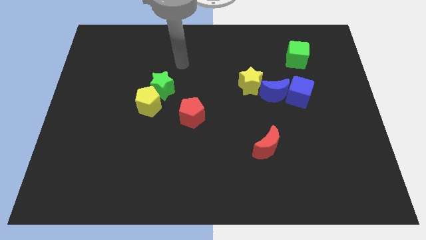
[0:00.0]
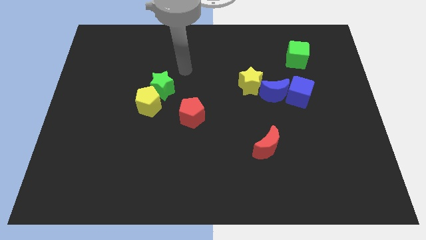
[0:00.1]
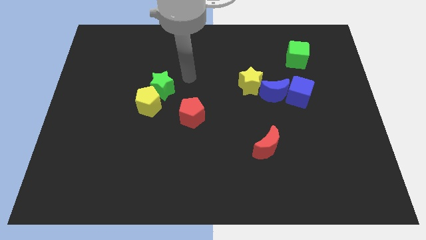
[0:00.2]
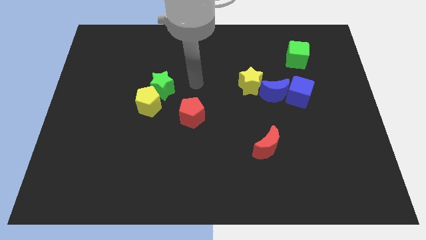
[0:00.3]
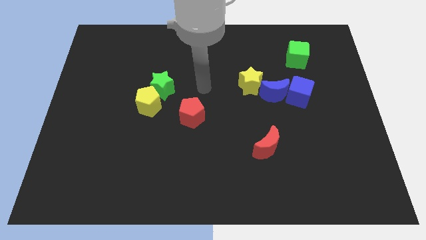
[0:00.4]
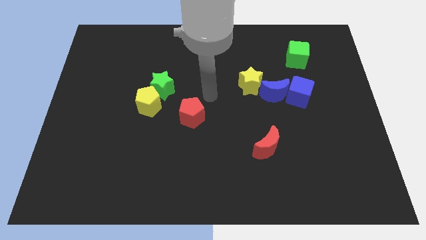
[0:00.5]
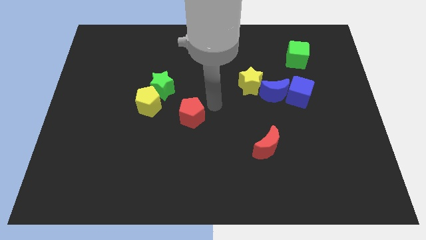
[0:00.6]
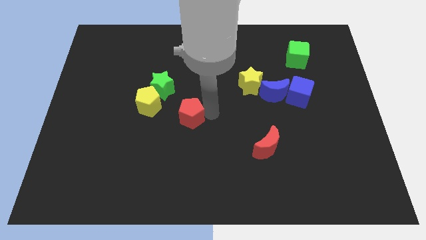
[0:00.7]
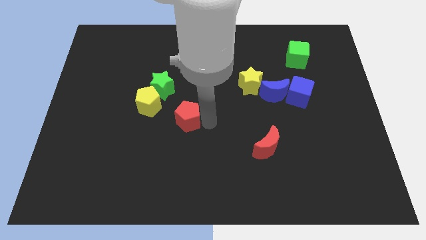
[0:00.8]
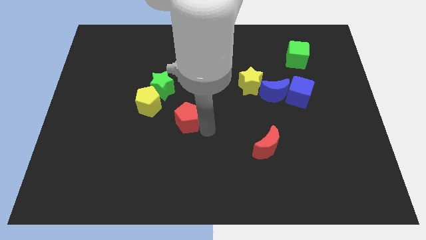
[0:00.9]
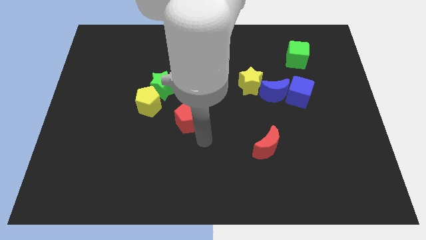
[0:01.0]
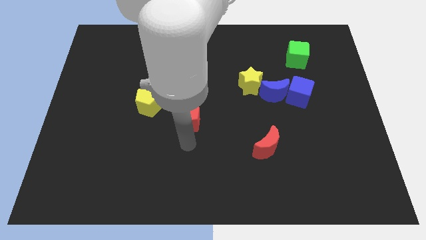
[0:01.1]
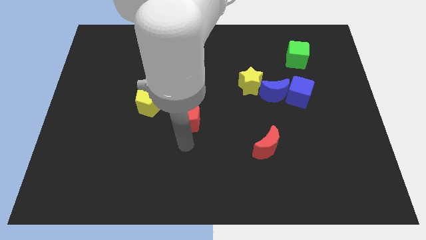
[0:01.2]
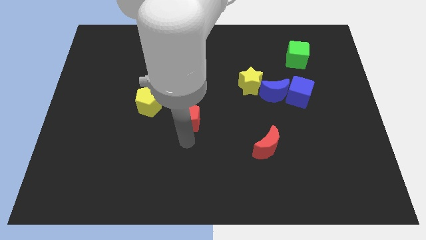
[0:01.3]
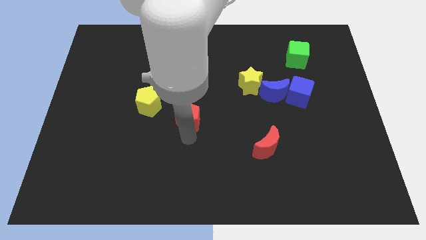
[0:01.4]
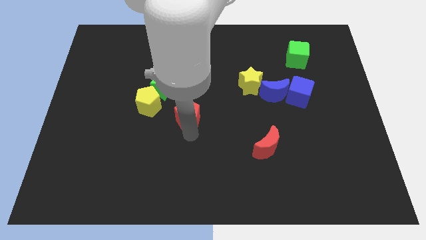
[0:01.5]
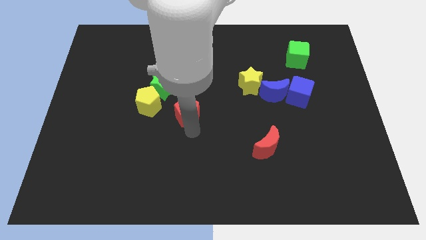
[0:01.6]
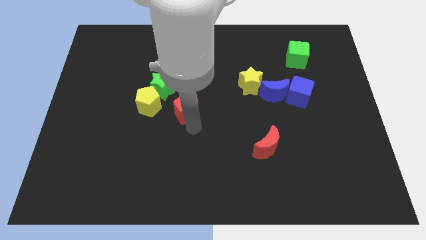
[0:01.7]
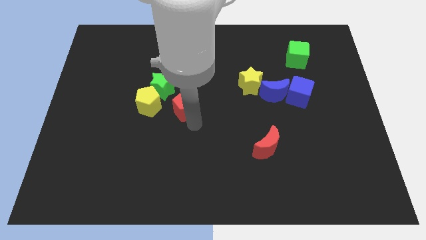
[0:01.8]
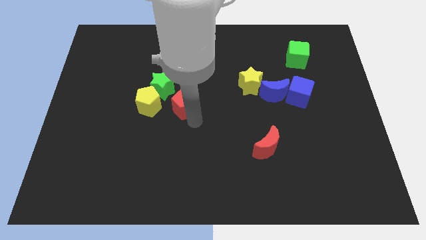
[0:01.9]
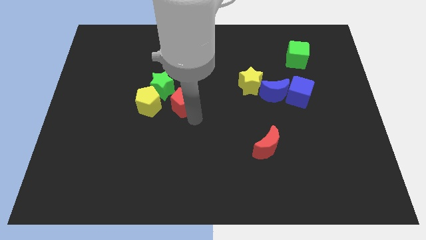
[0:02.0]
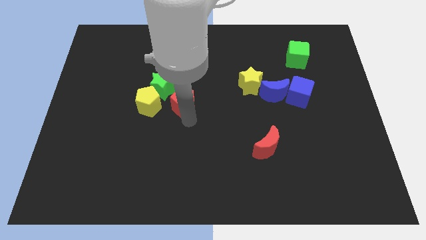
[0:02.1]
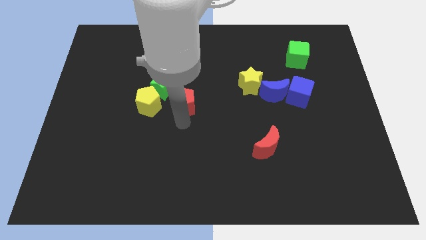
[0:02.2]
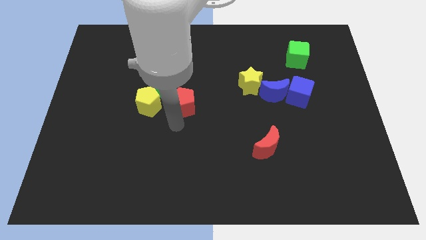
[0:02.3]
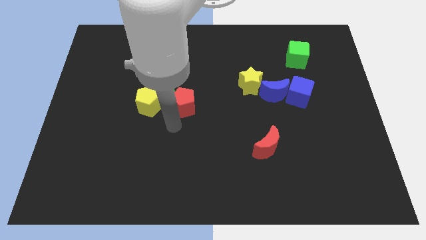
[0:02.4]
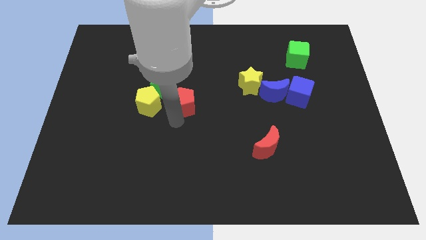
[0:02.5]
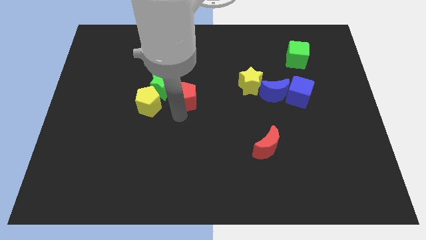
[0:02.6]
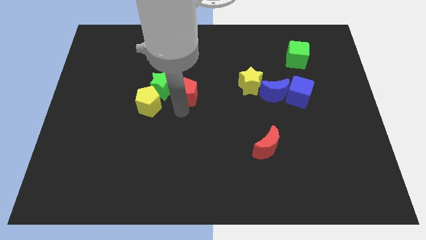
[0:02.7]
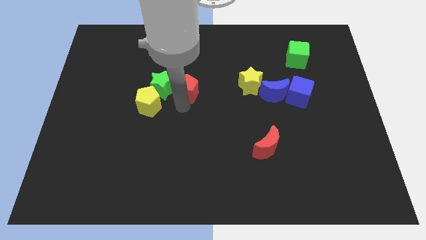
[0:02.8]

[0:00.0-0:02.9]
slide the red pentagon somewhat up

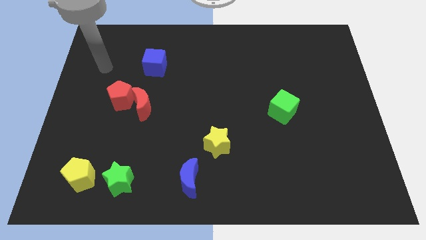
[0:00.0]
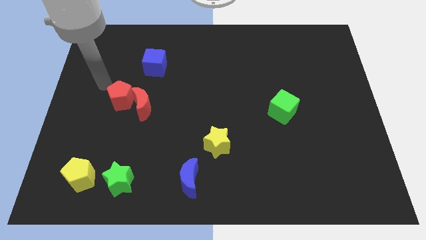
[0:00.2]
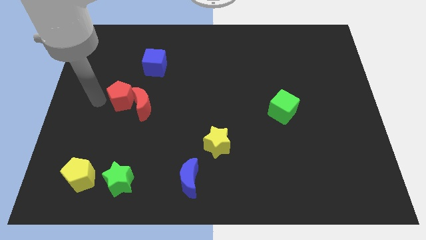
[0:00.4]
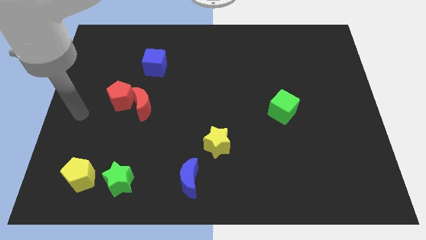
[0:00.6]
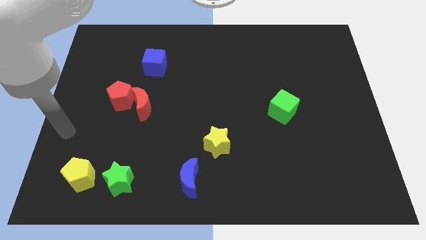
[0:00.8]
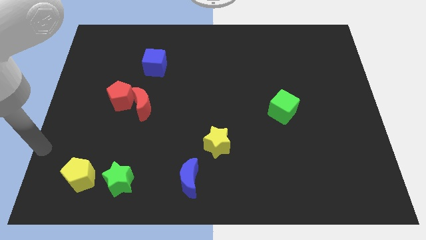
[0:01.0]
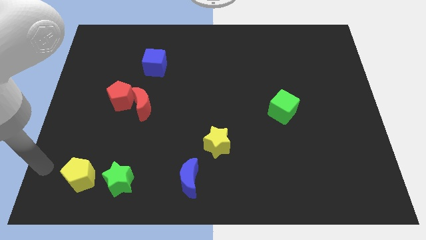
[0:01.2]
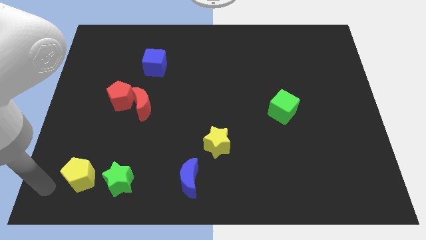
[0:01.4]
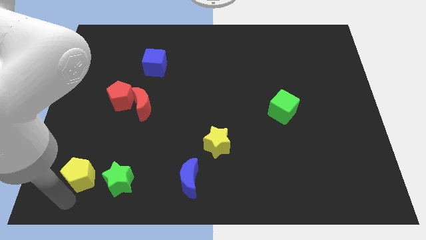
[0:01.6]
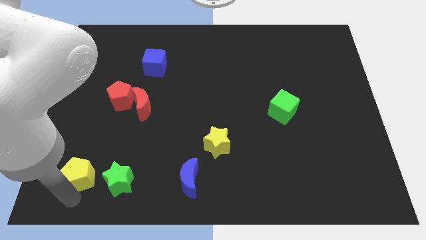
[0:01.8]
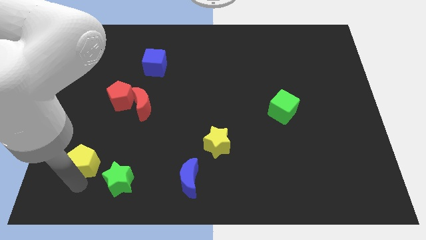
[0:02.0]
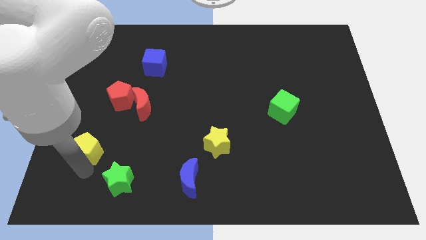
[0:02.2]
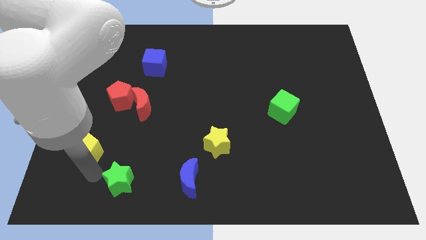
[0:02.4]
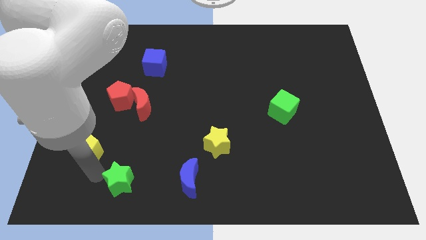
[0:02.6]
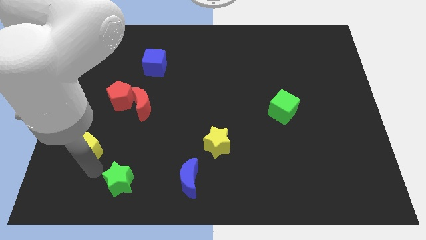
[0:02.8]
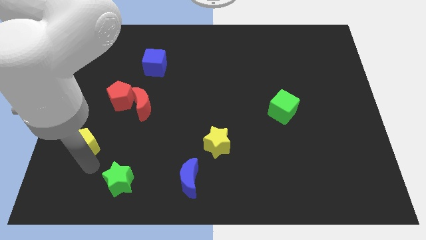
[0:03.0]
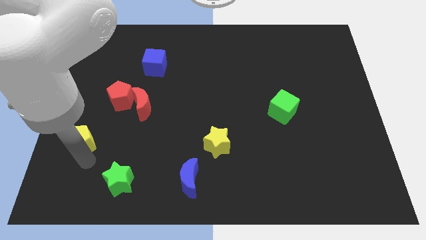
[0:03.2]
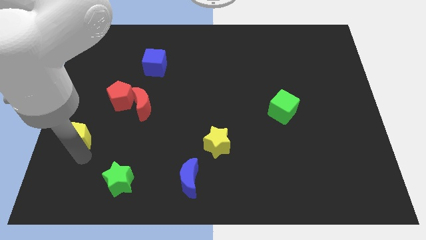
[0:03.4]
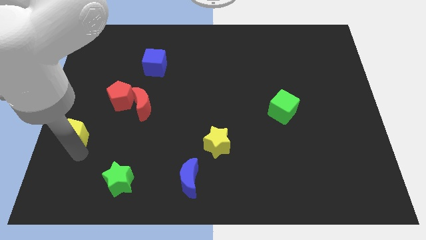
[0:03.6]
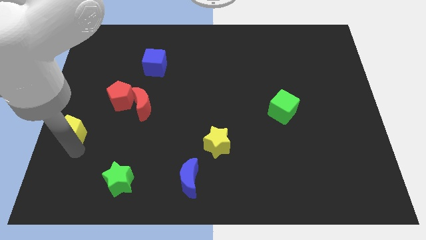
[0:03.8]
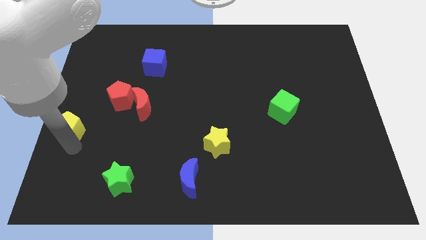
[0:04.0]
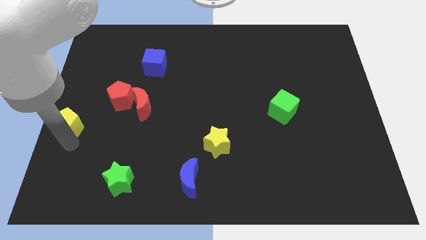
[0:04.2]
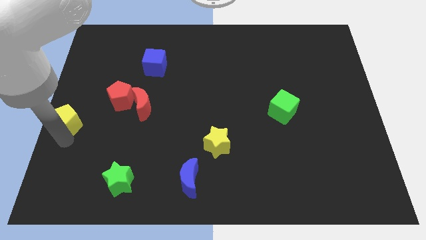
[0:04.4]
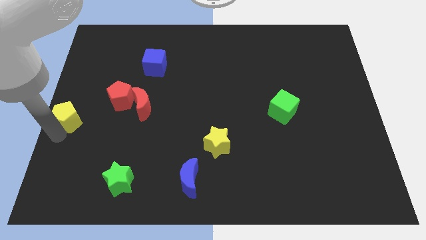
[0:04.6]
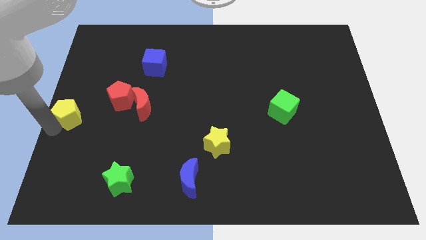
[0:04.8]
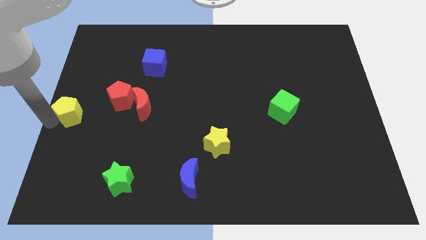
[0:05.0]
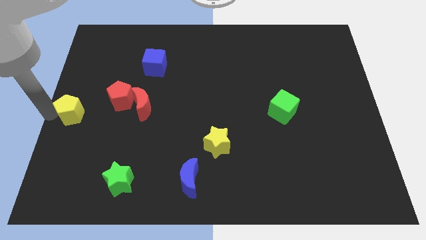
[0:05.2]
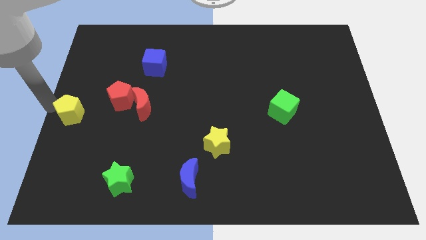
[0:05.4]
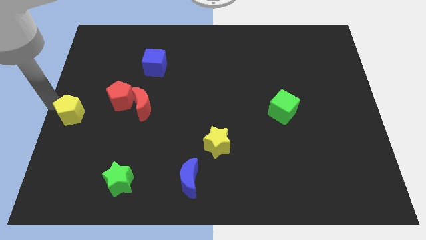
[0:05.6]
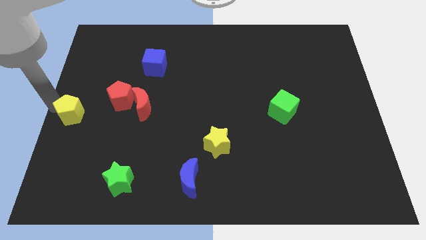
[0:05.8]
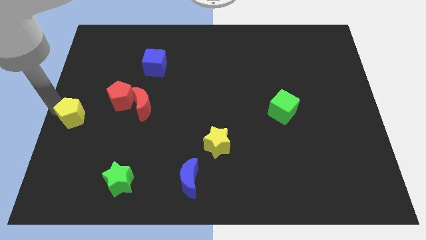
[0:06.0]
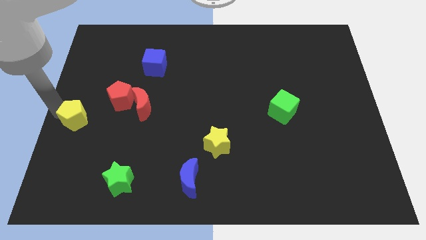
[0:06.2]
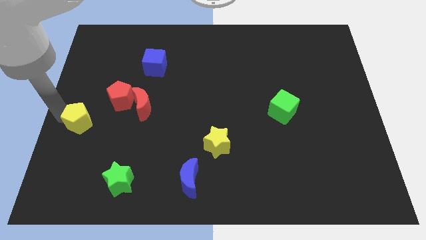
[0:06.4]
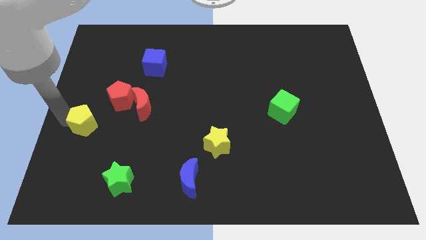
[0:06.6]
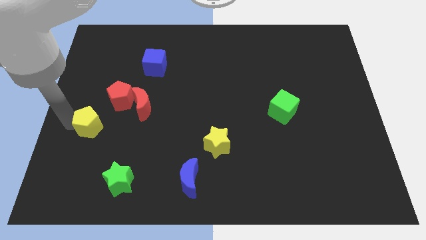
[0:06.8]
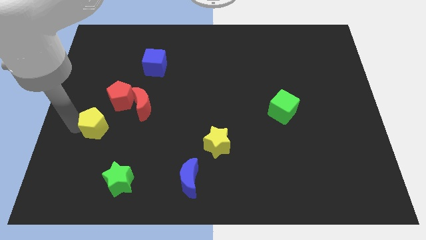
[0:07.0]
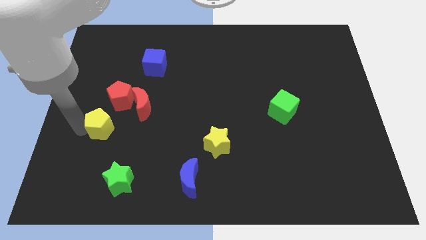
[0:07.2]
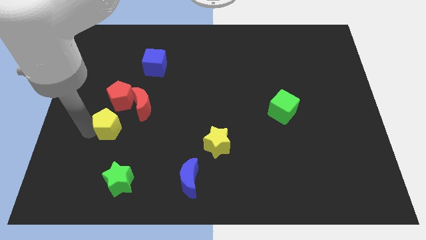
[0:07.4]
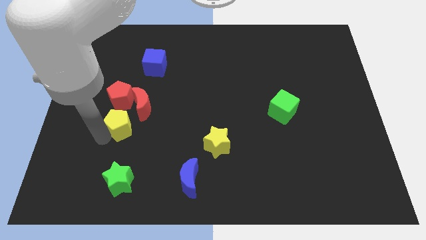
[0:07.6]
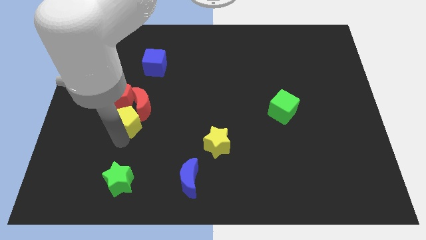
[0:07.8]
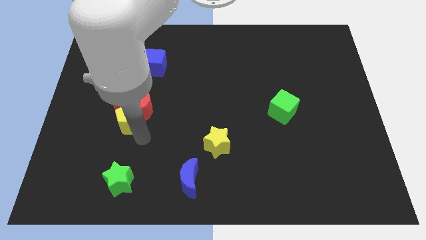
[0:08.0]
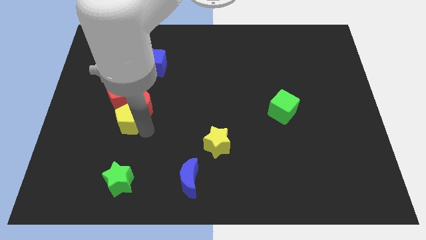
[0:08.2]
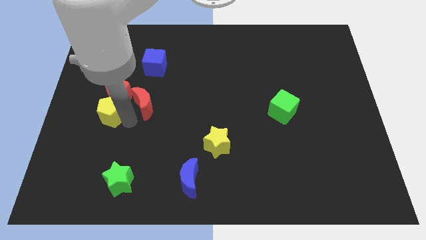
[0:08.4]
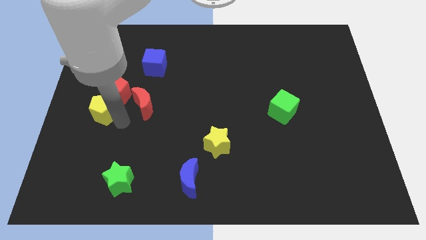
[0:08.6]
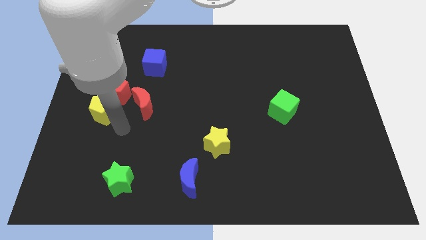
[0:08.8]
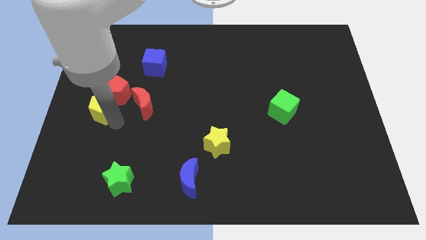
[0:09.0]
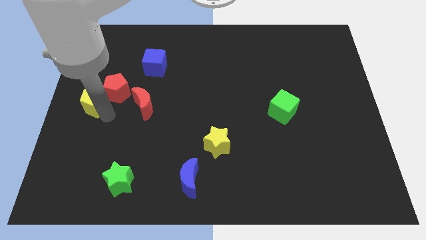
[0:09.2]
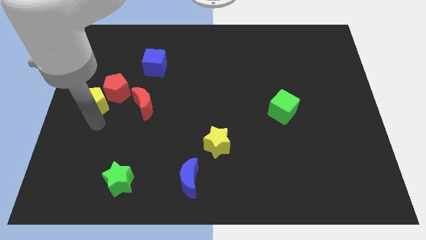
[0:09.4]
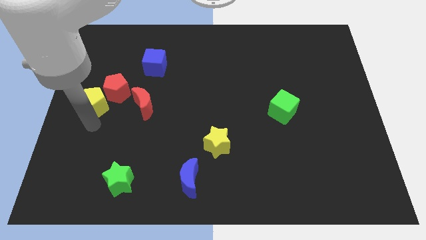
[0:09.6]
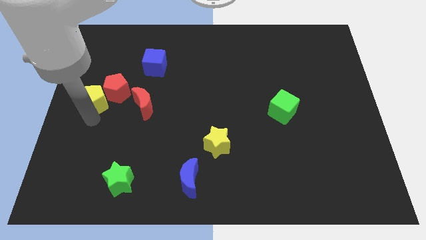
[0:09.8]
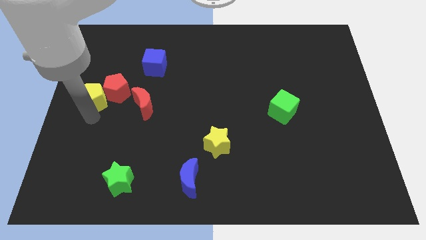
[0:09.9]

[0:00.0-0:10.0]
push the yellow pentagon upwards
